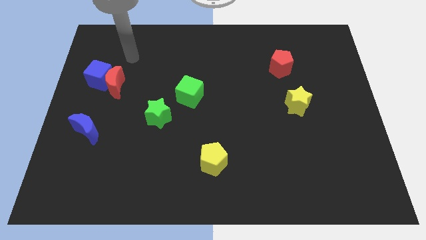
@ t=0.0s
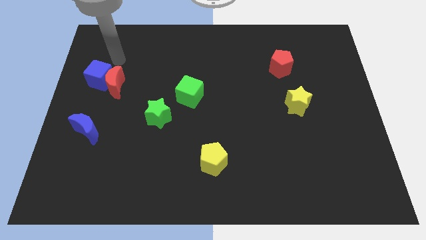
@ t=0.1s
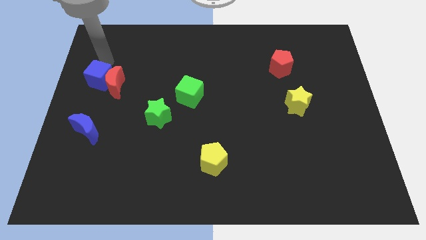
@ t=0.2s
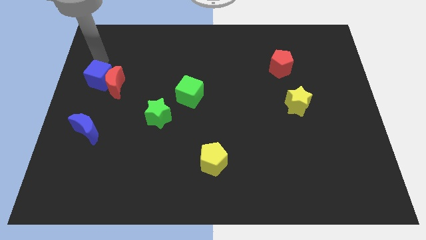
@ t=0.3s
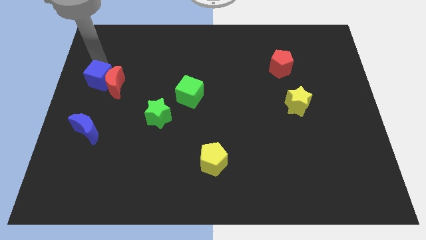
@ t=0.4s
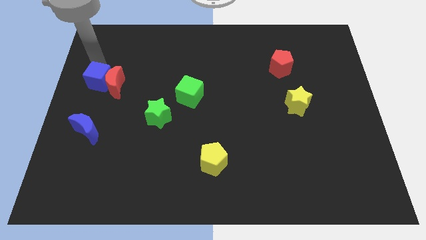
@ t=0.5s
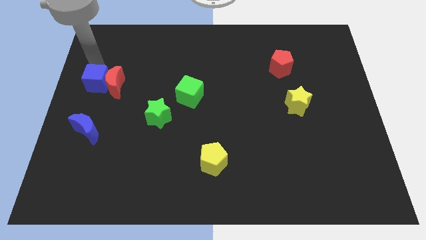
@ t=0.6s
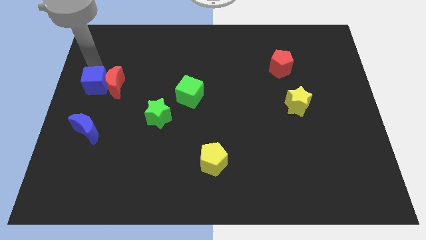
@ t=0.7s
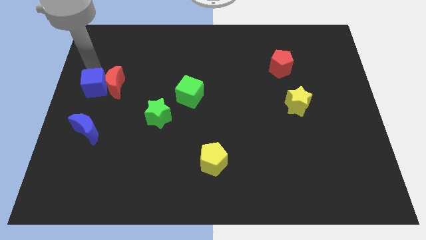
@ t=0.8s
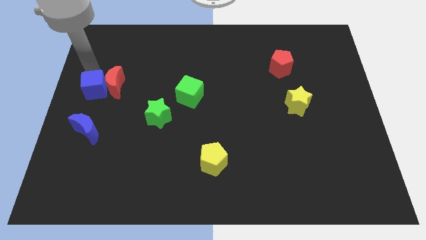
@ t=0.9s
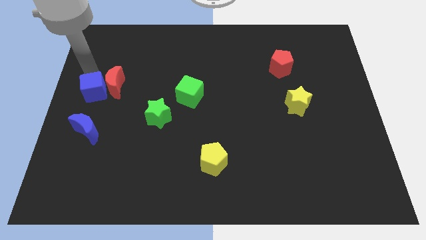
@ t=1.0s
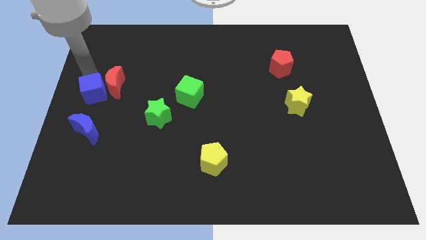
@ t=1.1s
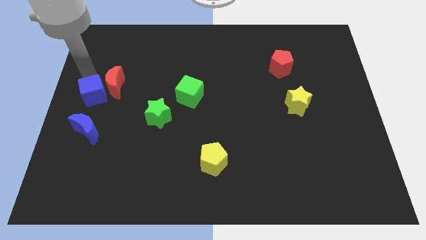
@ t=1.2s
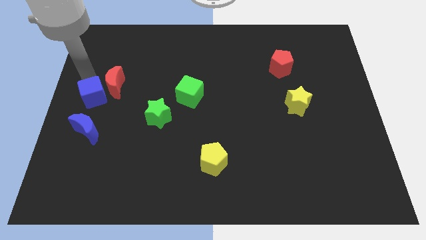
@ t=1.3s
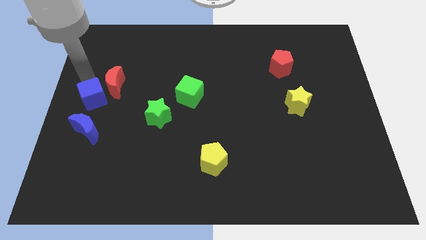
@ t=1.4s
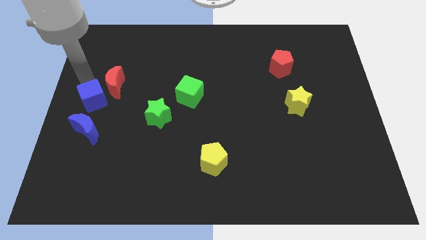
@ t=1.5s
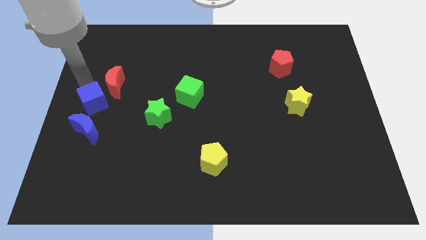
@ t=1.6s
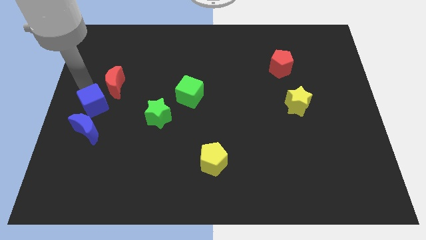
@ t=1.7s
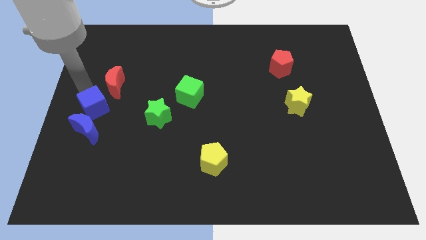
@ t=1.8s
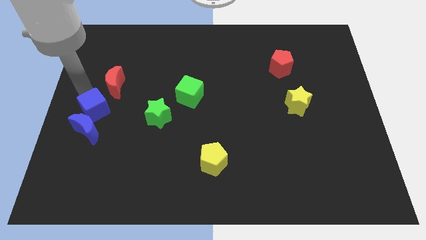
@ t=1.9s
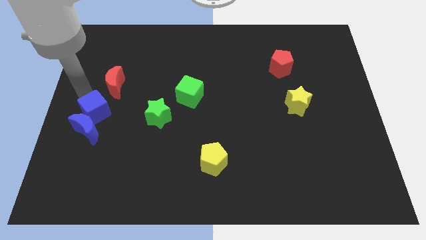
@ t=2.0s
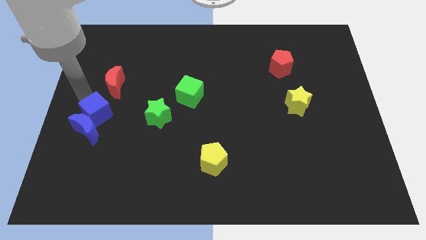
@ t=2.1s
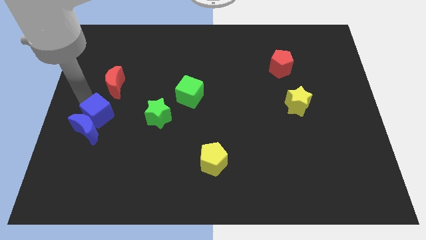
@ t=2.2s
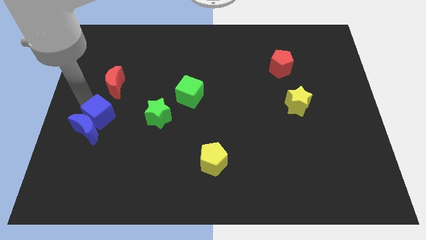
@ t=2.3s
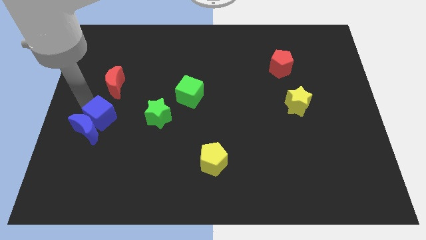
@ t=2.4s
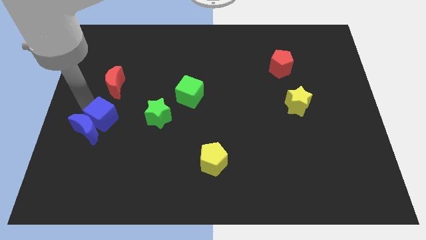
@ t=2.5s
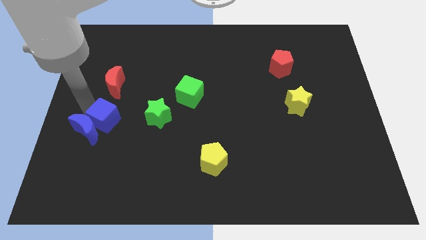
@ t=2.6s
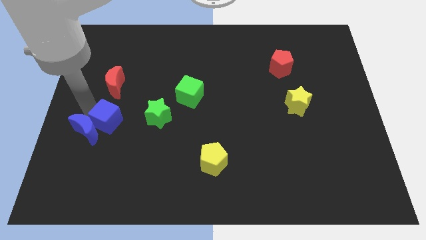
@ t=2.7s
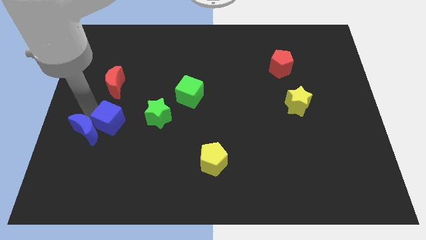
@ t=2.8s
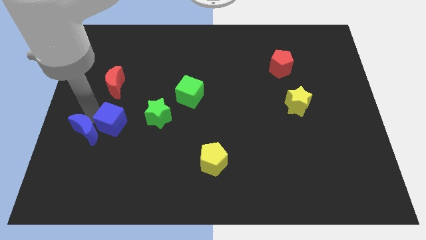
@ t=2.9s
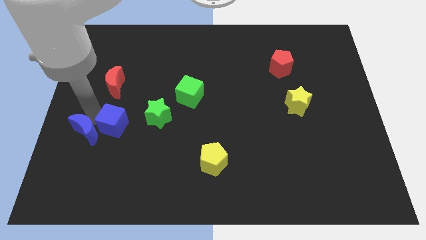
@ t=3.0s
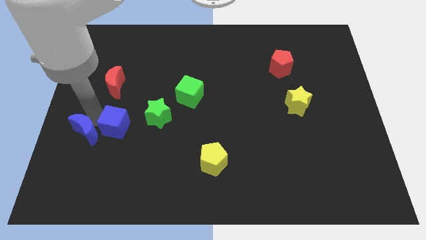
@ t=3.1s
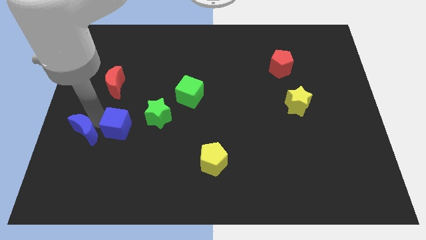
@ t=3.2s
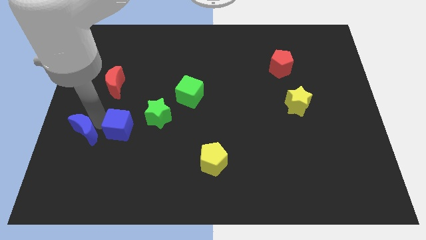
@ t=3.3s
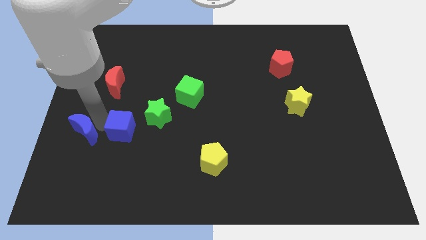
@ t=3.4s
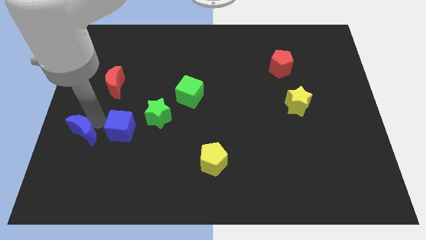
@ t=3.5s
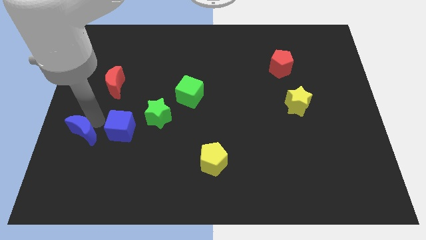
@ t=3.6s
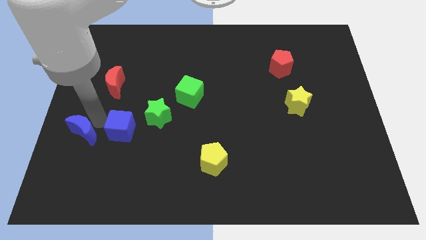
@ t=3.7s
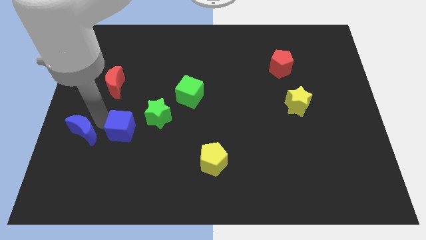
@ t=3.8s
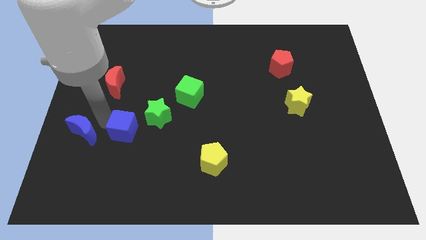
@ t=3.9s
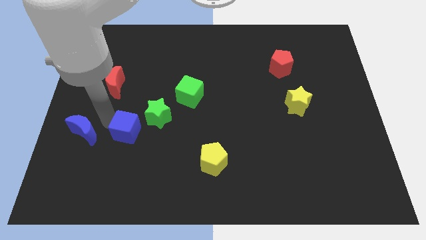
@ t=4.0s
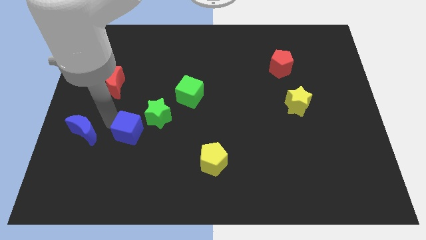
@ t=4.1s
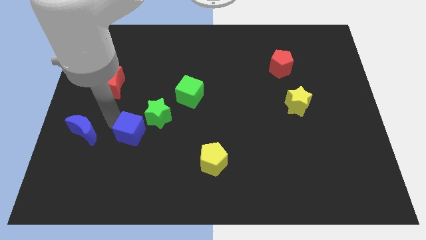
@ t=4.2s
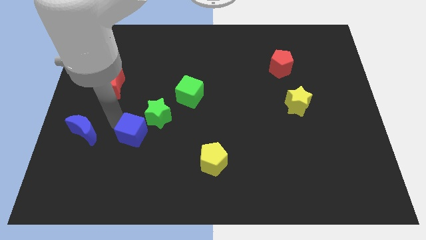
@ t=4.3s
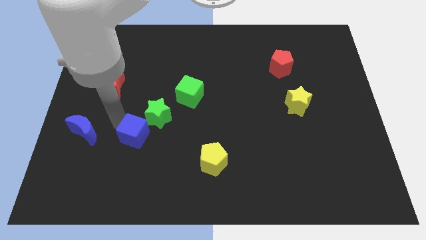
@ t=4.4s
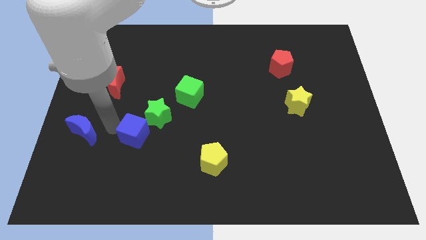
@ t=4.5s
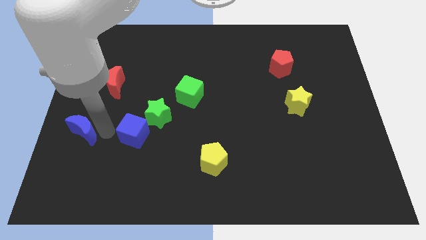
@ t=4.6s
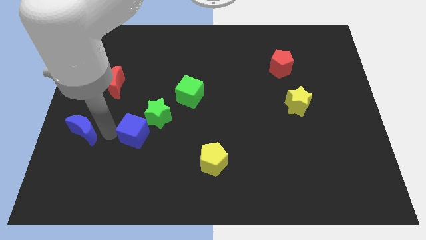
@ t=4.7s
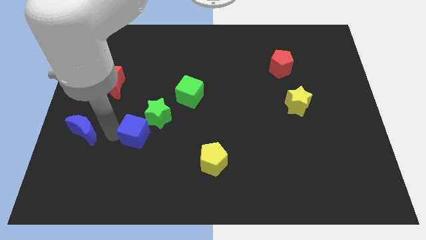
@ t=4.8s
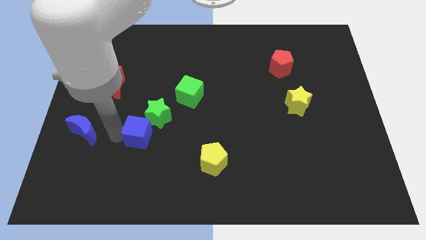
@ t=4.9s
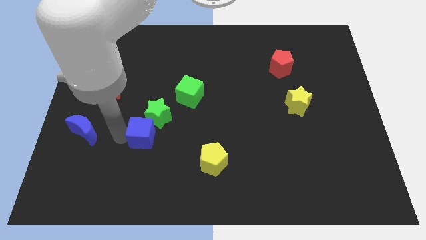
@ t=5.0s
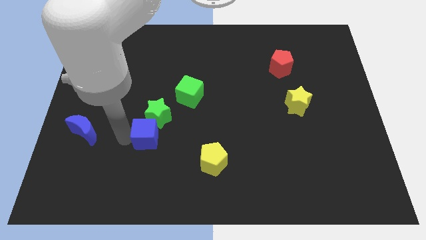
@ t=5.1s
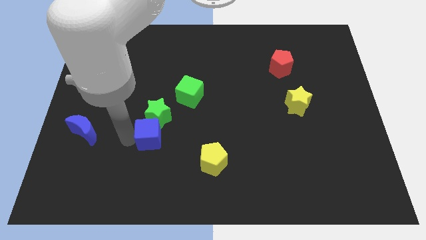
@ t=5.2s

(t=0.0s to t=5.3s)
slide the blue cube diagonally down and to the right of the green star

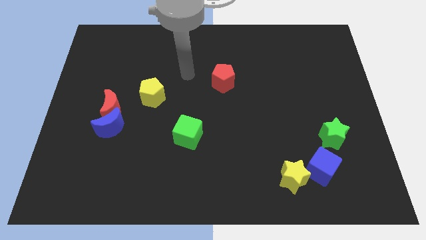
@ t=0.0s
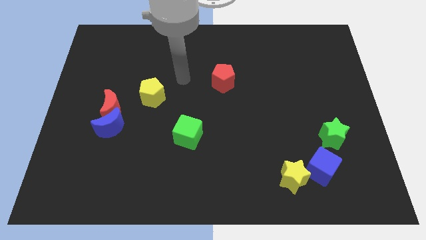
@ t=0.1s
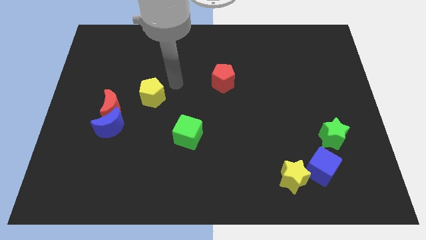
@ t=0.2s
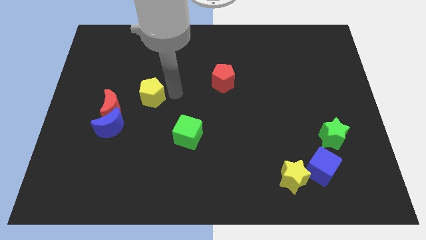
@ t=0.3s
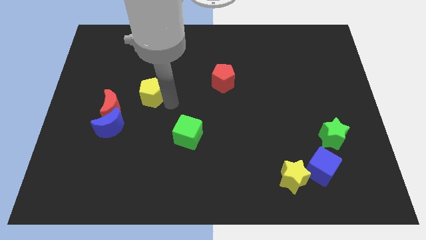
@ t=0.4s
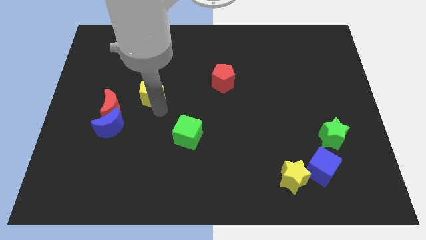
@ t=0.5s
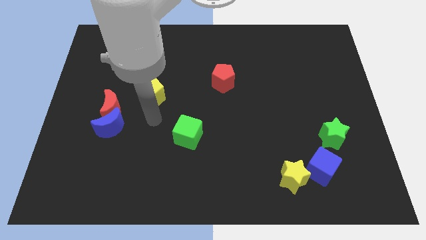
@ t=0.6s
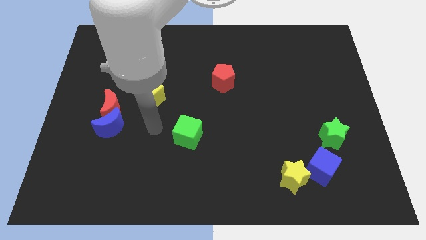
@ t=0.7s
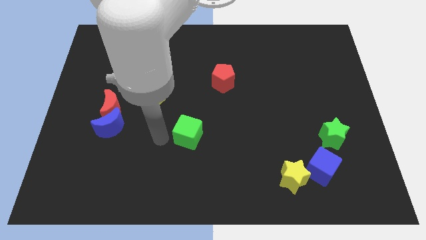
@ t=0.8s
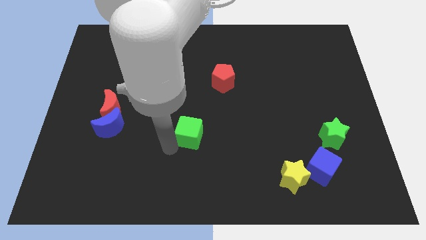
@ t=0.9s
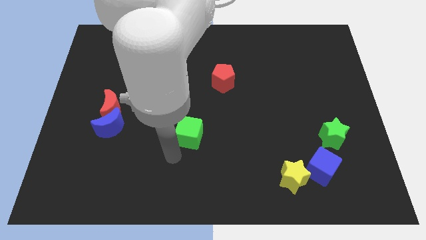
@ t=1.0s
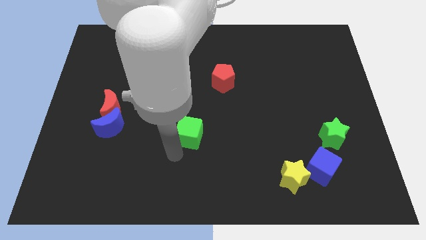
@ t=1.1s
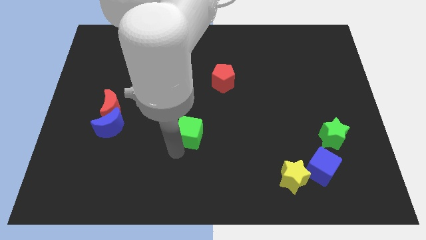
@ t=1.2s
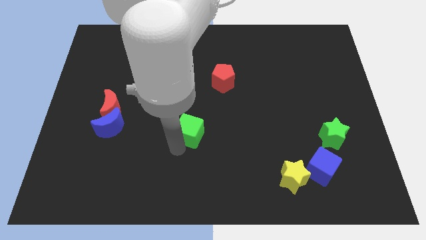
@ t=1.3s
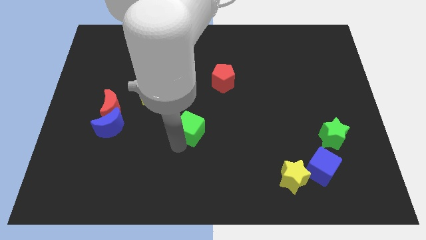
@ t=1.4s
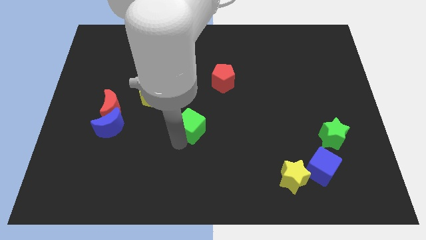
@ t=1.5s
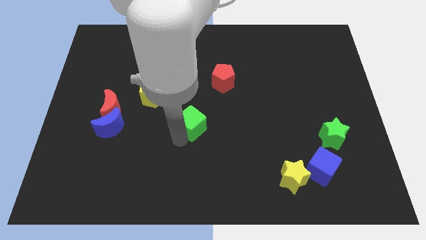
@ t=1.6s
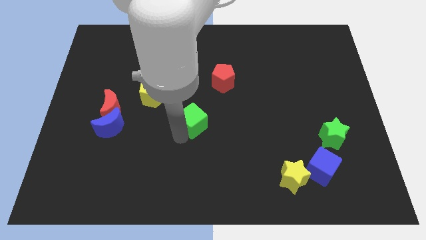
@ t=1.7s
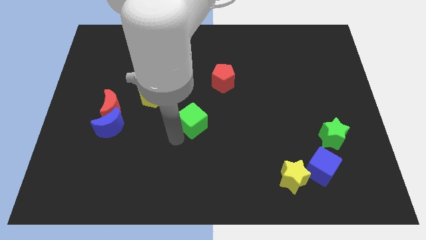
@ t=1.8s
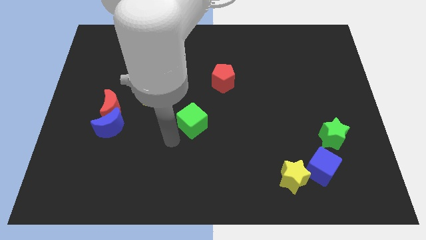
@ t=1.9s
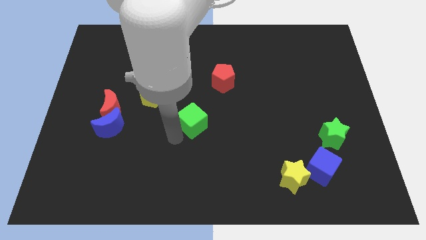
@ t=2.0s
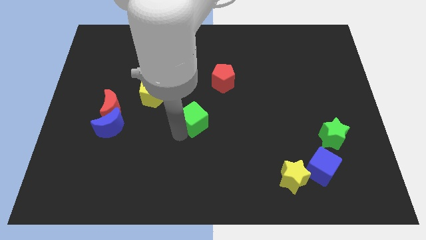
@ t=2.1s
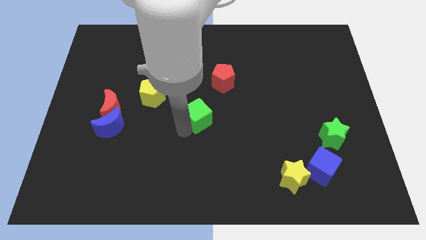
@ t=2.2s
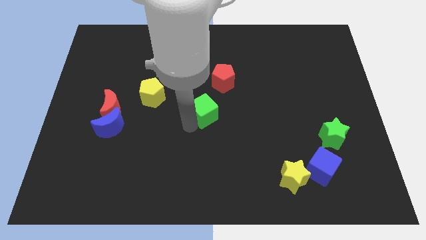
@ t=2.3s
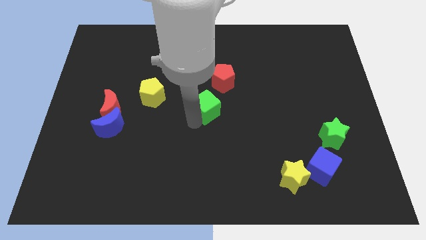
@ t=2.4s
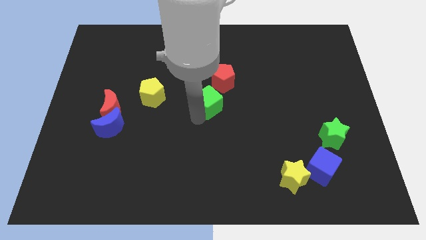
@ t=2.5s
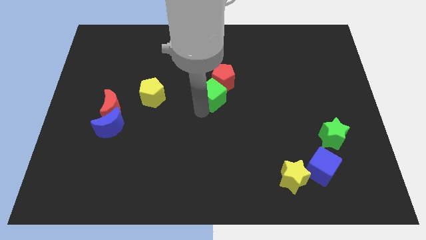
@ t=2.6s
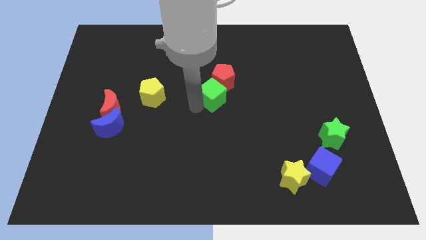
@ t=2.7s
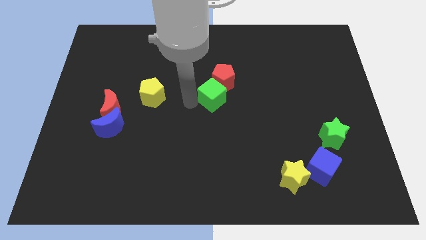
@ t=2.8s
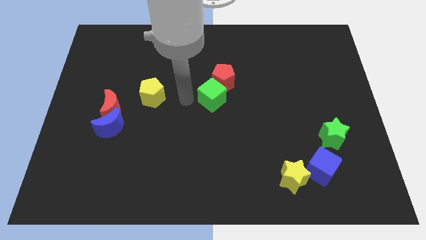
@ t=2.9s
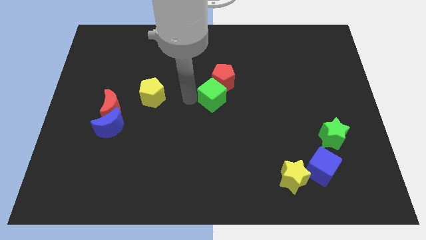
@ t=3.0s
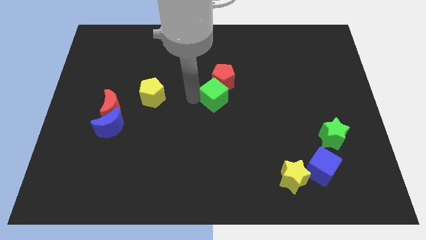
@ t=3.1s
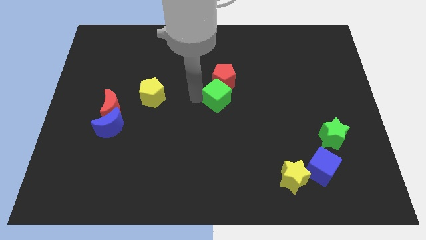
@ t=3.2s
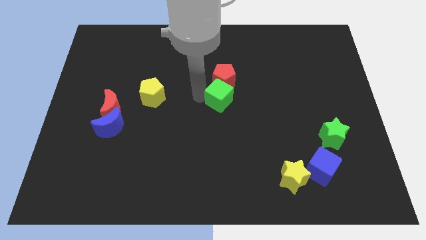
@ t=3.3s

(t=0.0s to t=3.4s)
move the green cube diagonally down and to the right of the red pentagon
